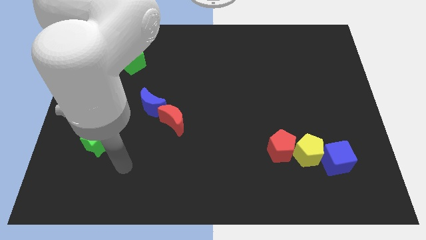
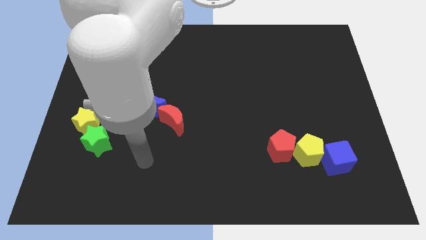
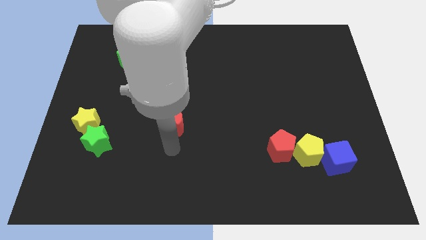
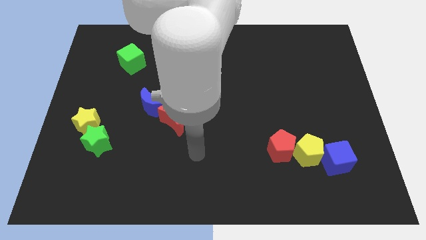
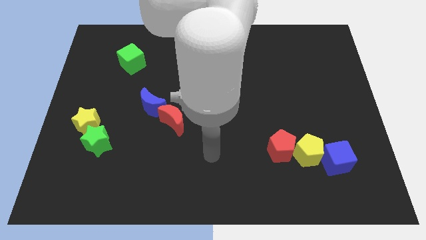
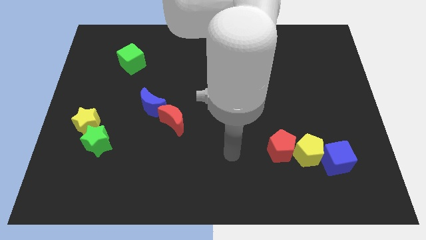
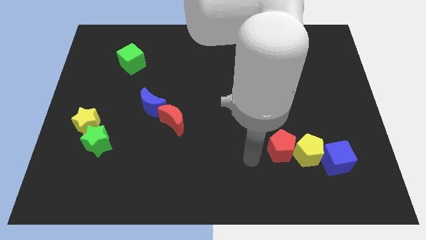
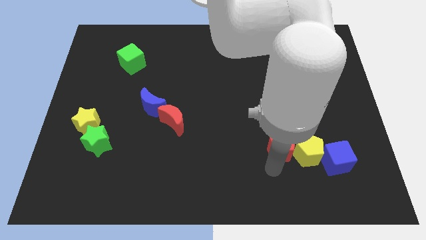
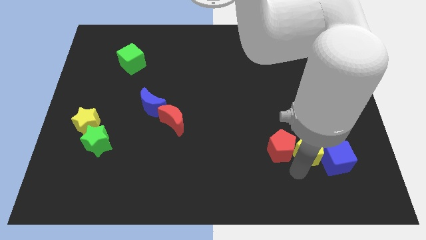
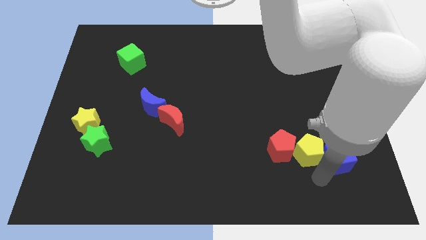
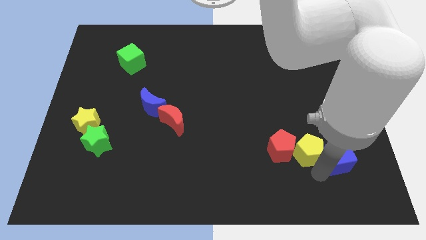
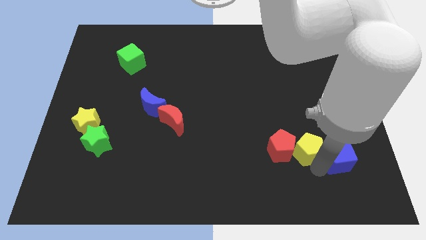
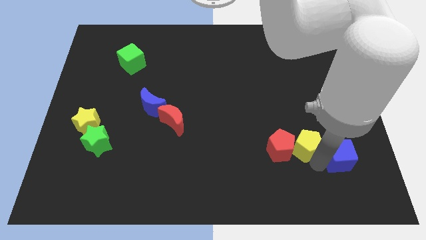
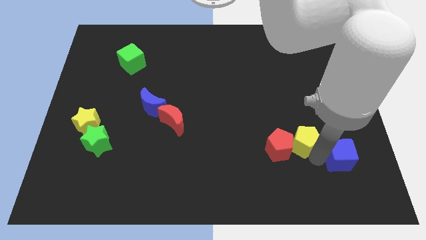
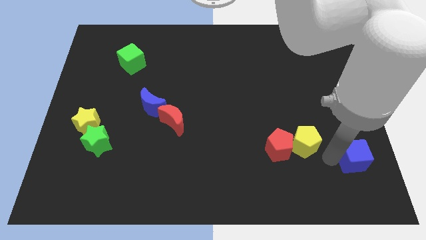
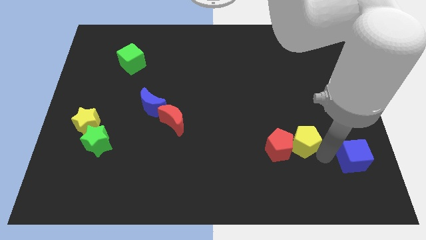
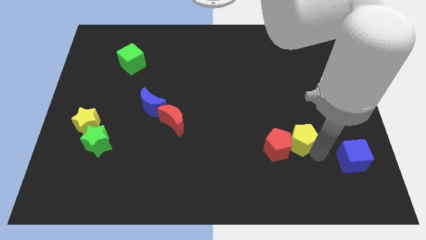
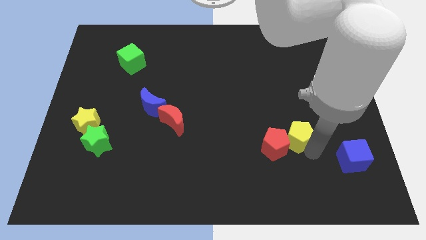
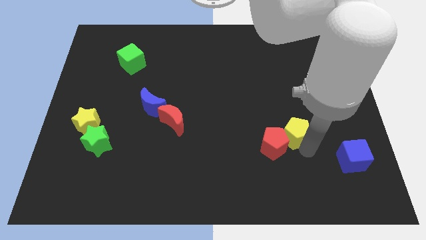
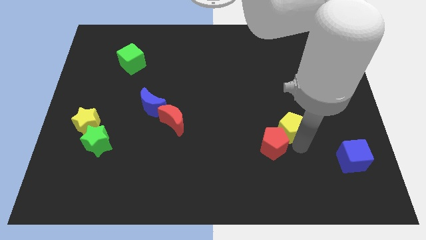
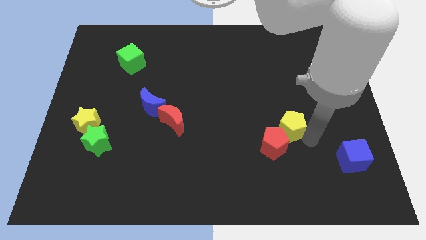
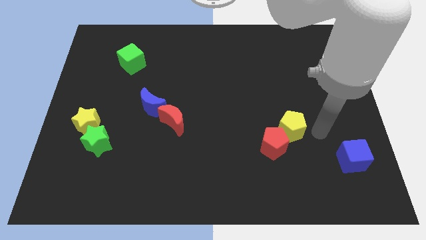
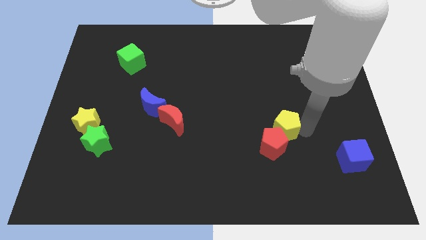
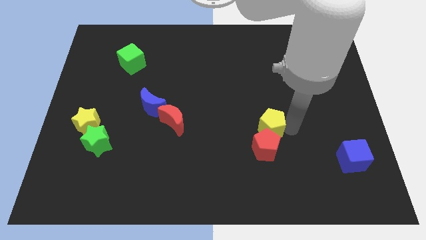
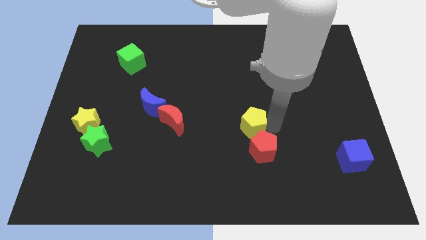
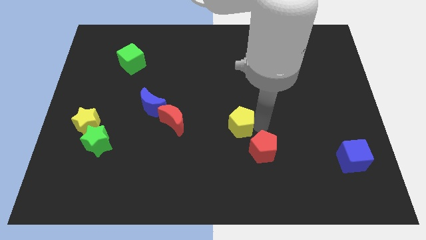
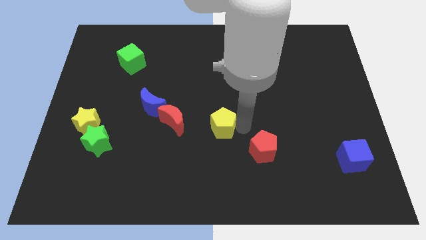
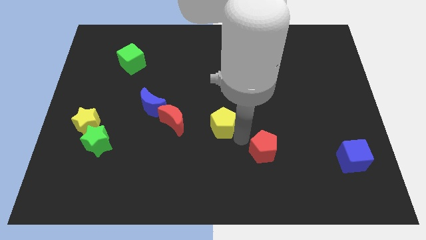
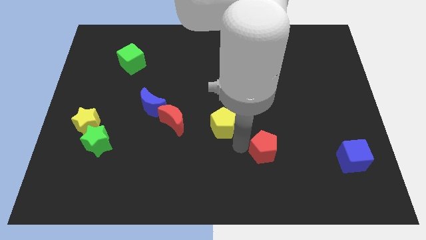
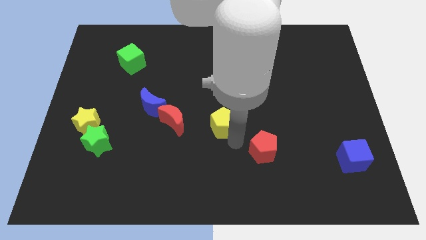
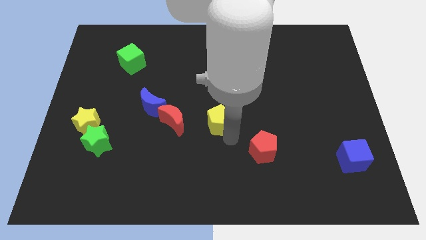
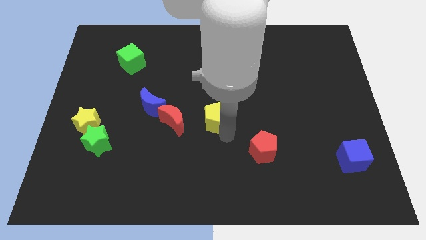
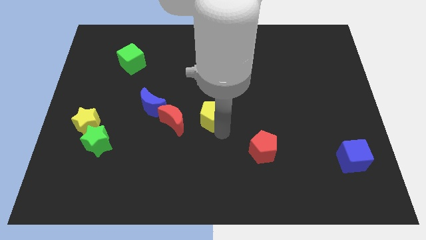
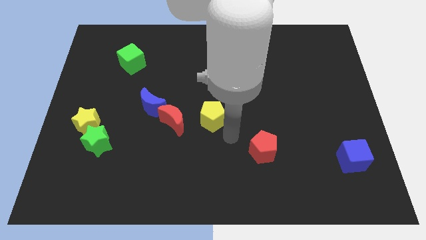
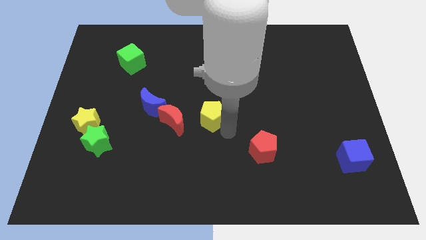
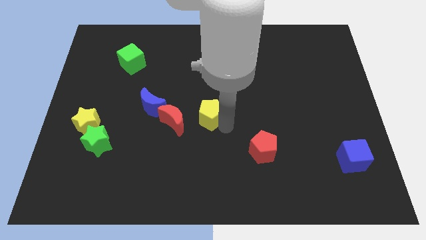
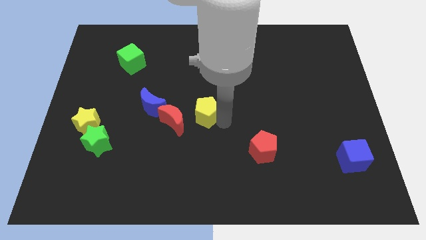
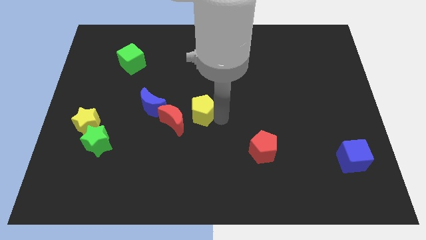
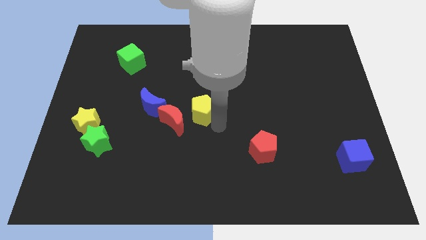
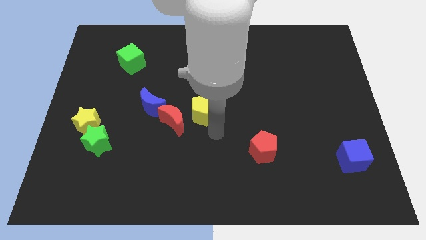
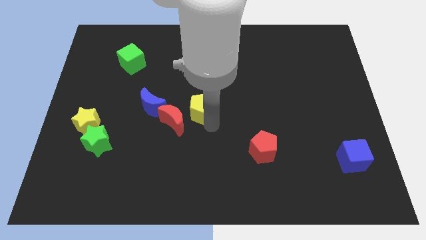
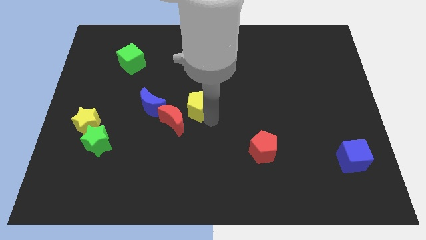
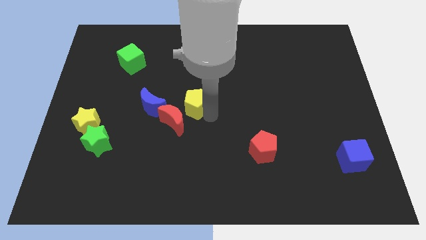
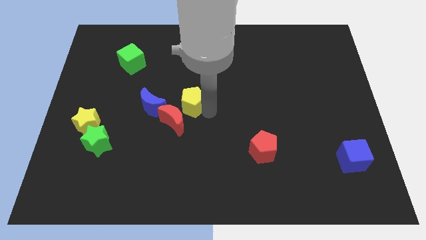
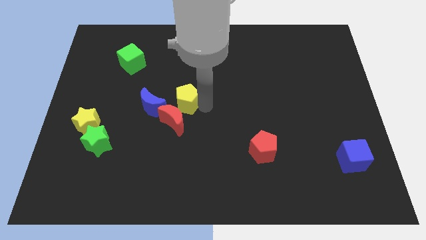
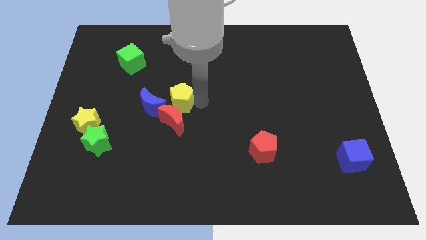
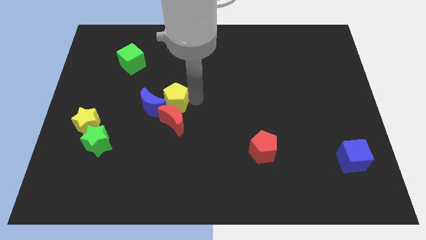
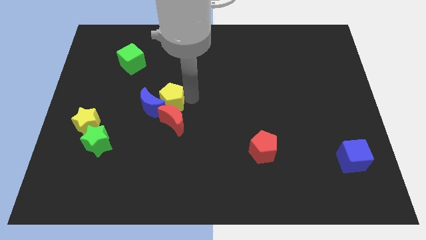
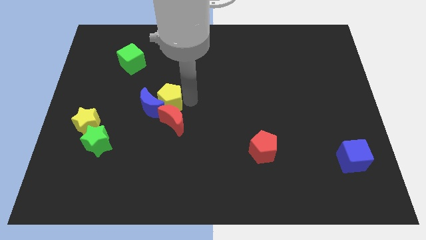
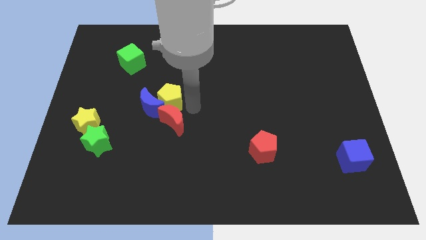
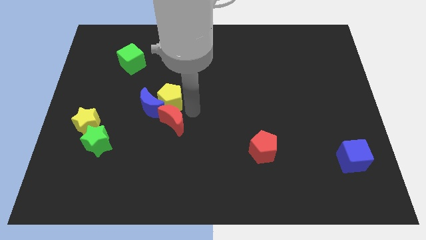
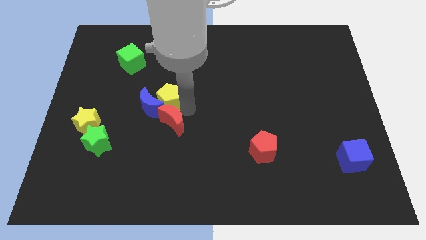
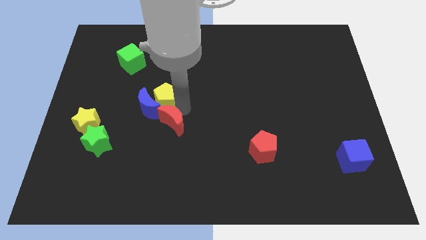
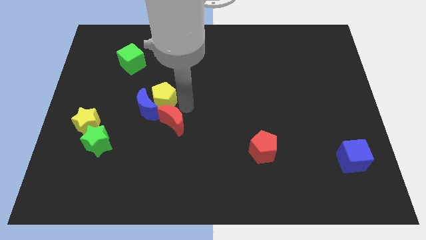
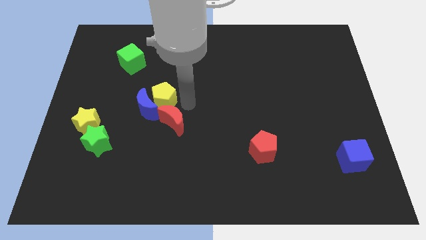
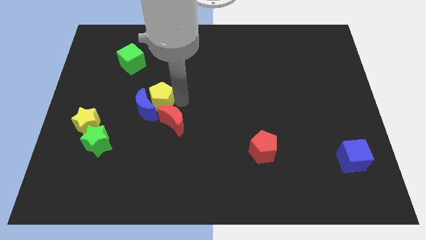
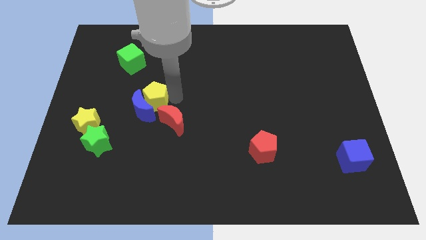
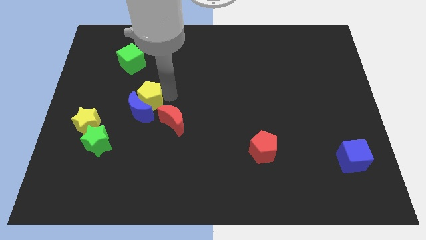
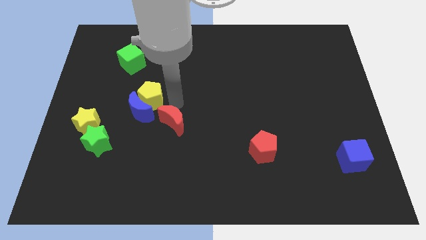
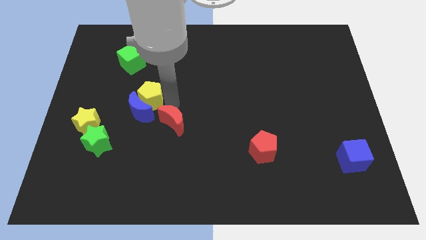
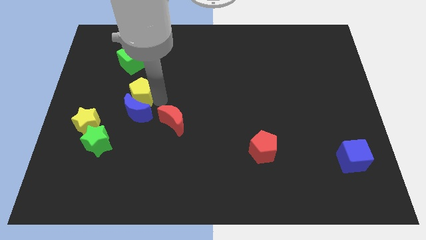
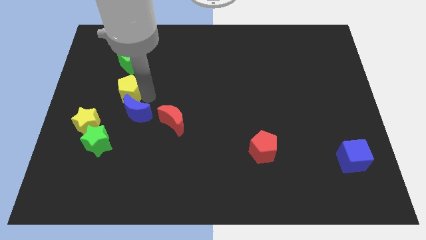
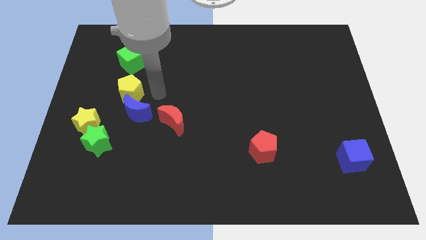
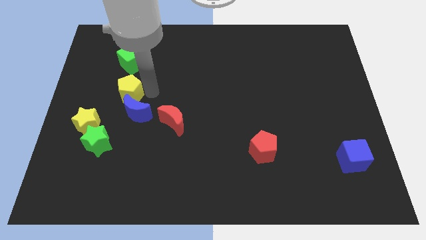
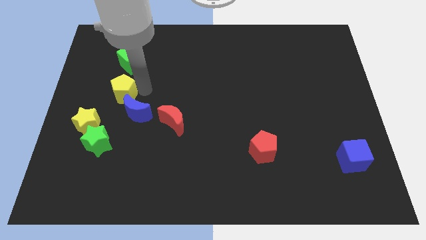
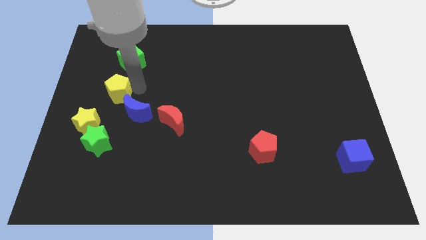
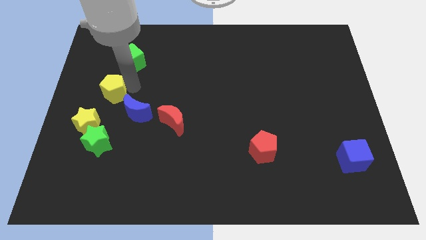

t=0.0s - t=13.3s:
put the yellow pentagon above the yellow star
